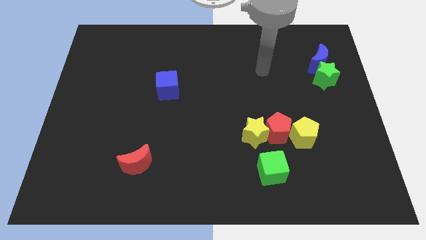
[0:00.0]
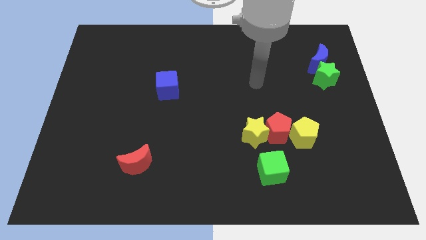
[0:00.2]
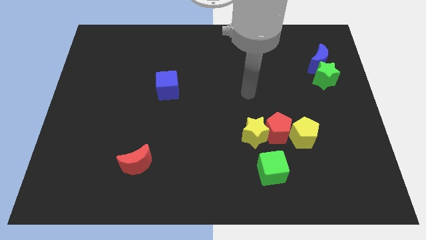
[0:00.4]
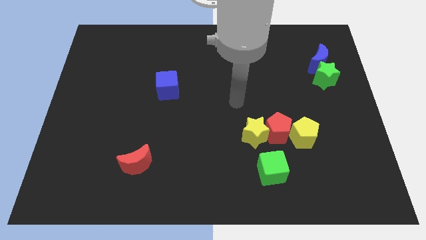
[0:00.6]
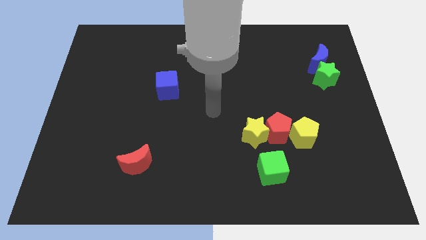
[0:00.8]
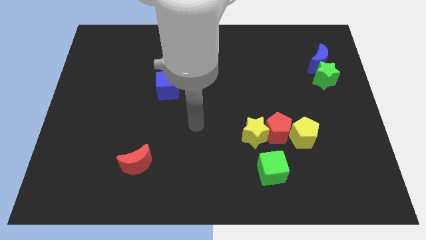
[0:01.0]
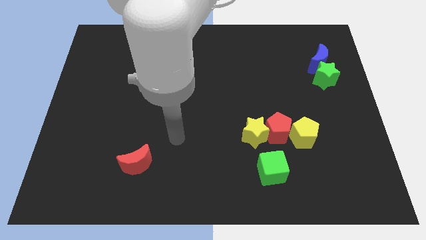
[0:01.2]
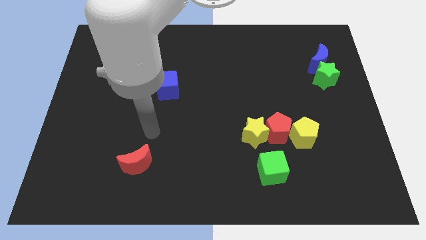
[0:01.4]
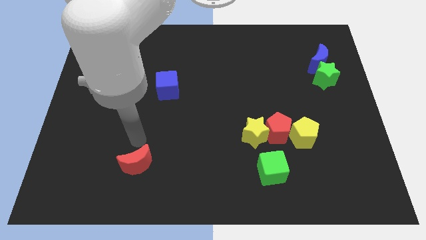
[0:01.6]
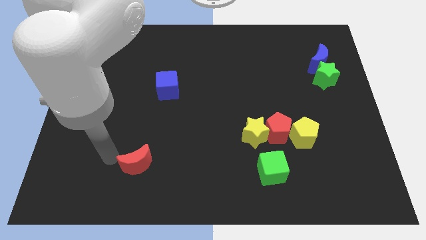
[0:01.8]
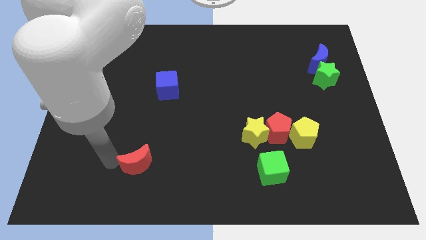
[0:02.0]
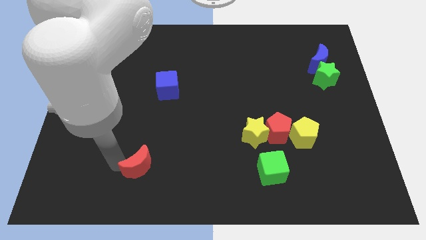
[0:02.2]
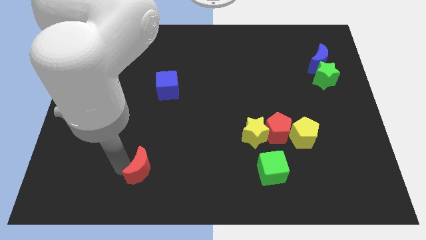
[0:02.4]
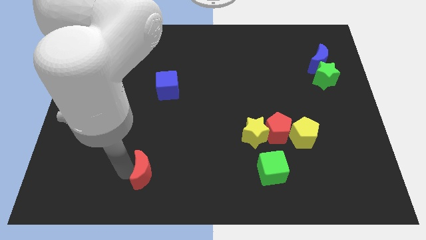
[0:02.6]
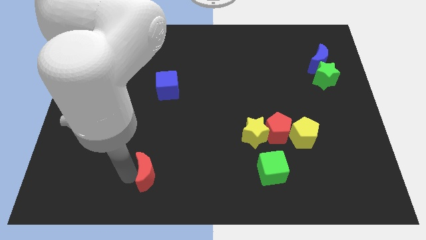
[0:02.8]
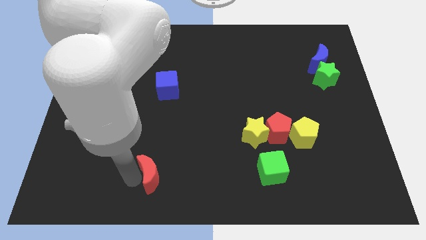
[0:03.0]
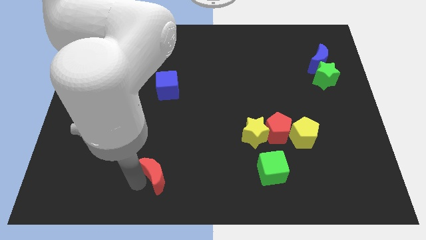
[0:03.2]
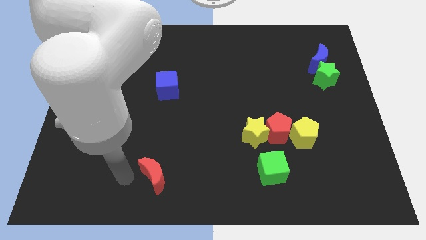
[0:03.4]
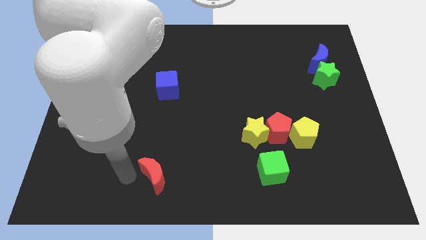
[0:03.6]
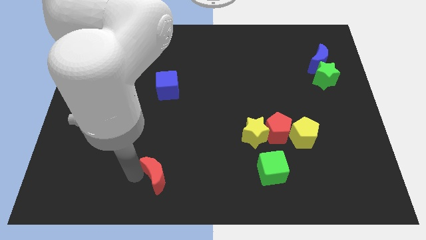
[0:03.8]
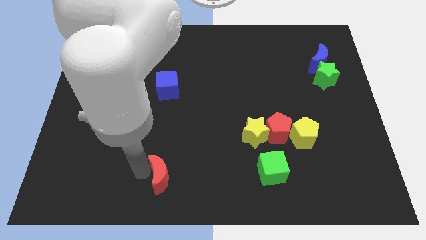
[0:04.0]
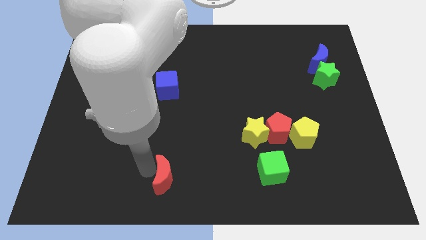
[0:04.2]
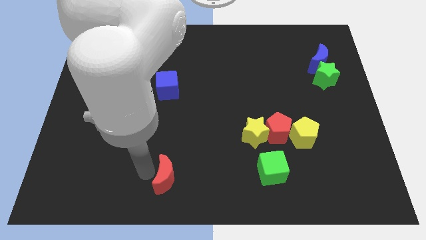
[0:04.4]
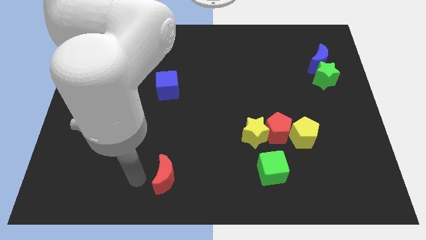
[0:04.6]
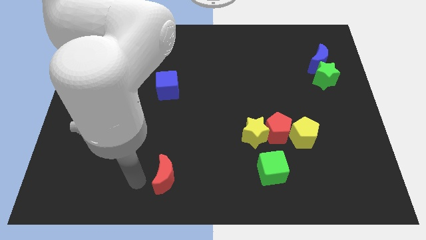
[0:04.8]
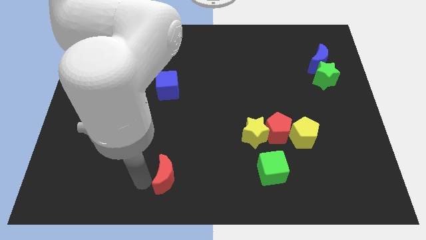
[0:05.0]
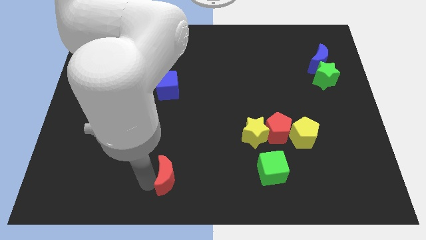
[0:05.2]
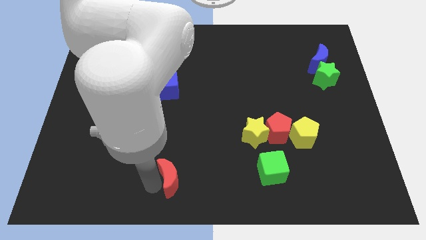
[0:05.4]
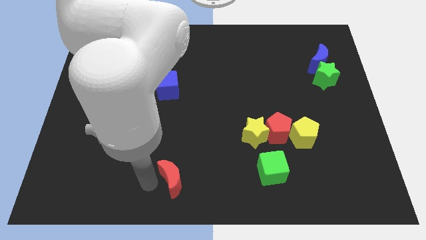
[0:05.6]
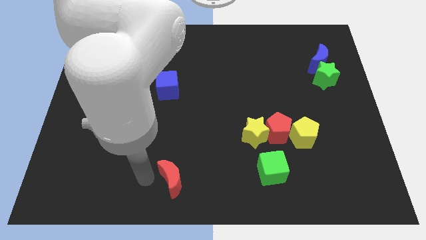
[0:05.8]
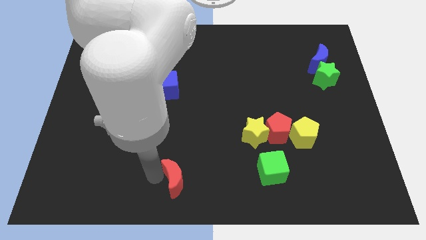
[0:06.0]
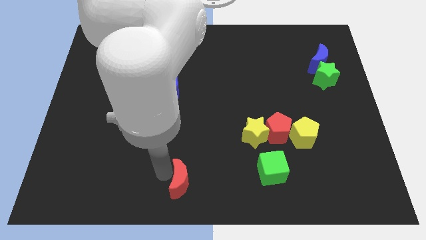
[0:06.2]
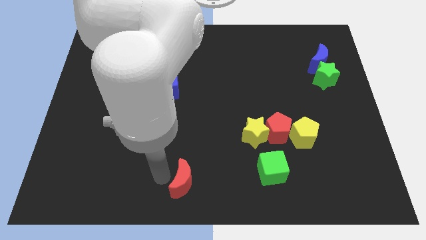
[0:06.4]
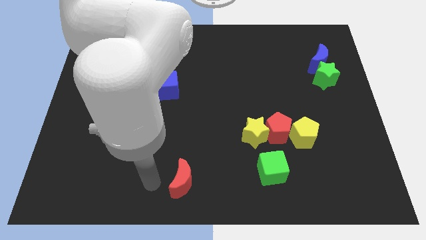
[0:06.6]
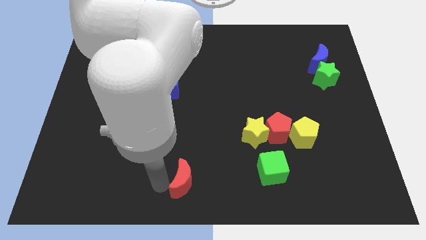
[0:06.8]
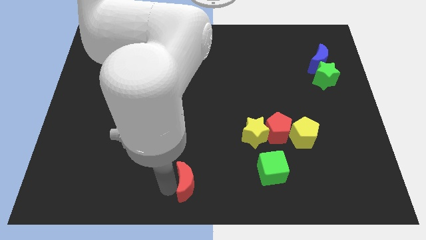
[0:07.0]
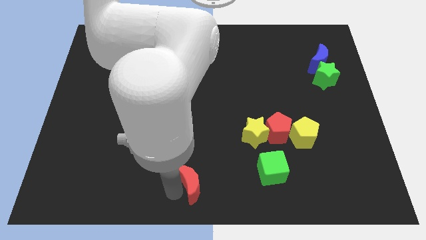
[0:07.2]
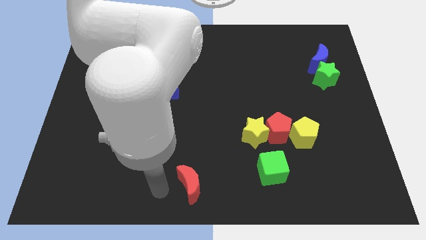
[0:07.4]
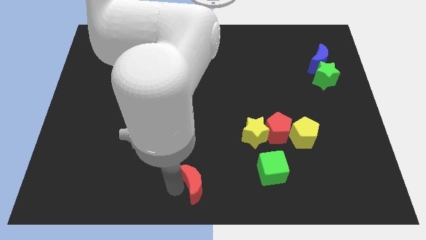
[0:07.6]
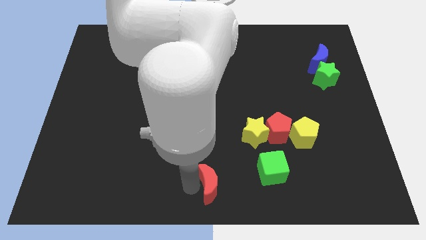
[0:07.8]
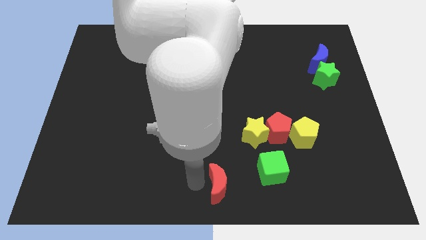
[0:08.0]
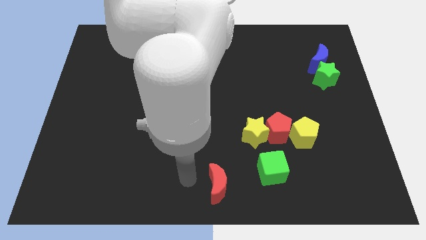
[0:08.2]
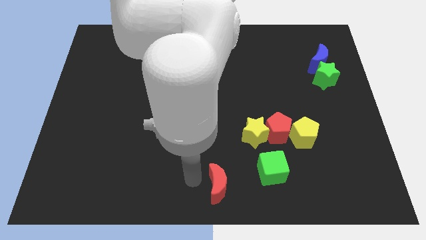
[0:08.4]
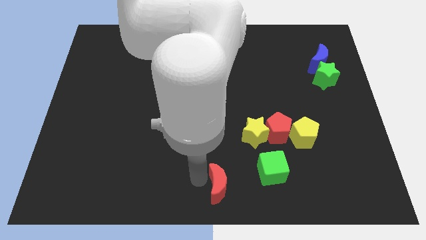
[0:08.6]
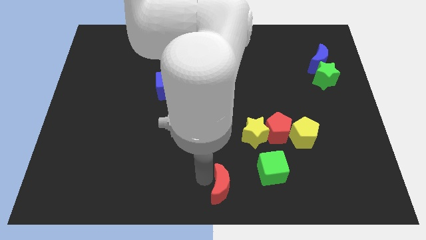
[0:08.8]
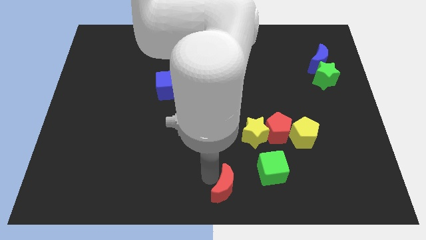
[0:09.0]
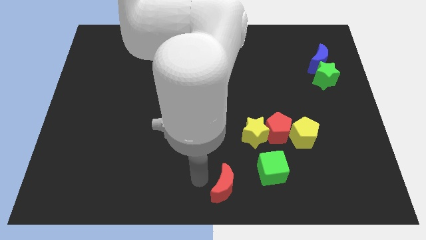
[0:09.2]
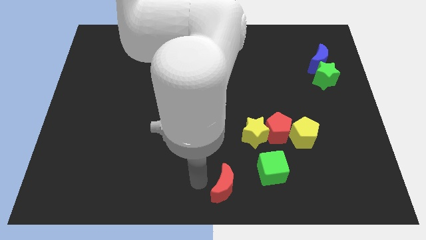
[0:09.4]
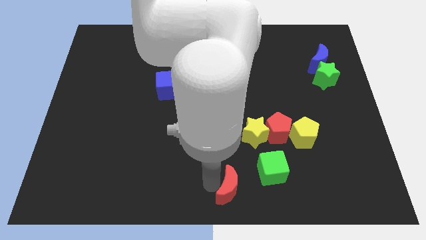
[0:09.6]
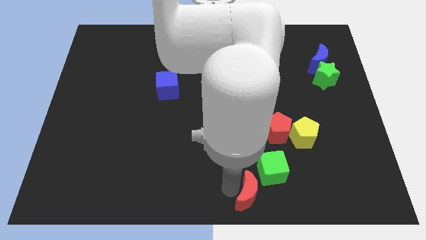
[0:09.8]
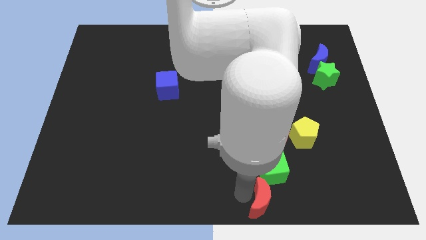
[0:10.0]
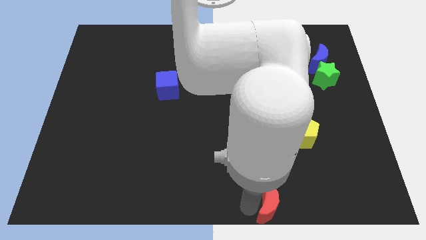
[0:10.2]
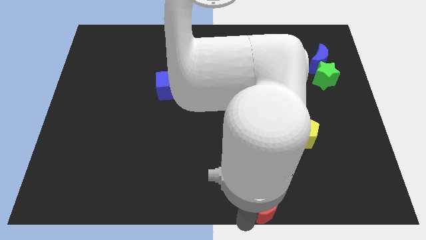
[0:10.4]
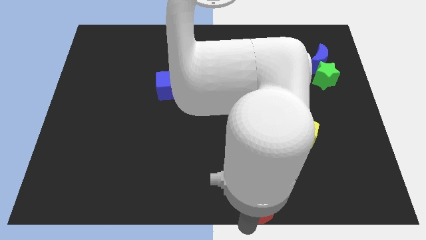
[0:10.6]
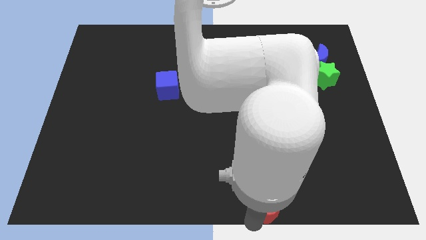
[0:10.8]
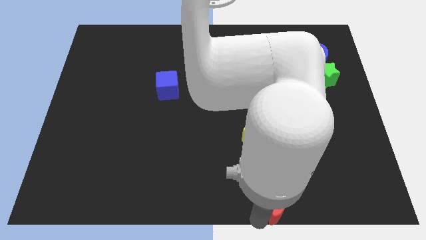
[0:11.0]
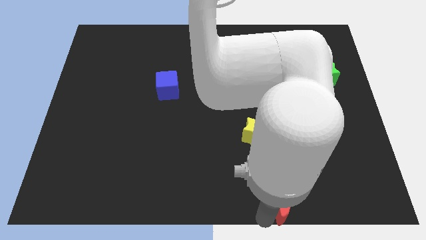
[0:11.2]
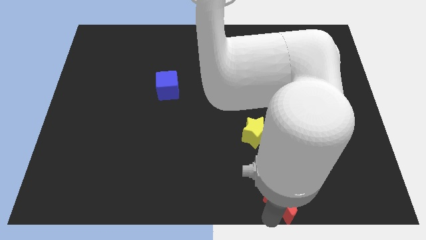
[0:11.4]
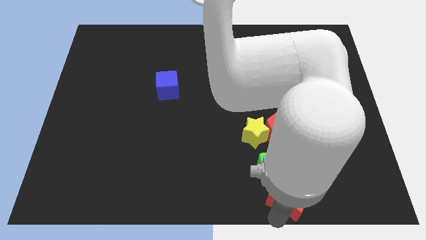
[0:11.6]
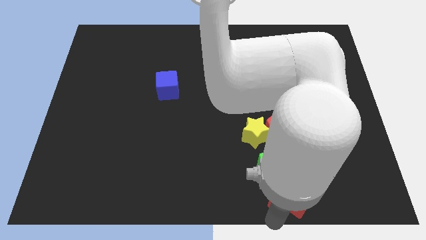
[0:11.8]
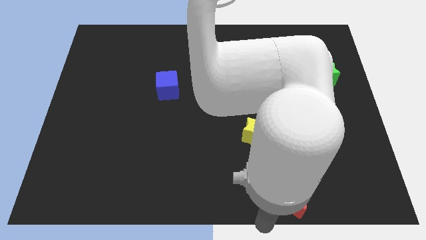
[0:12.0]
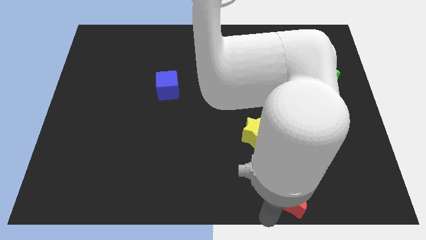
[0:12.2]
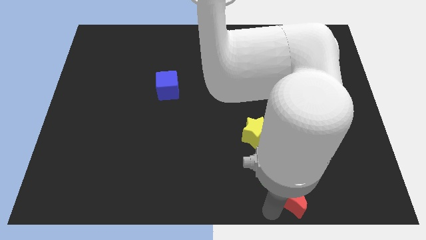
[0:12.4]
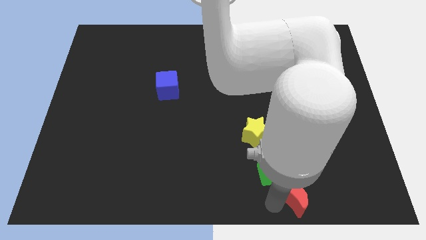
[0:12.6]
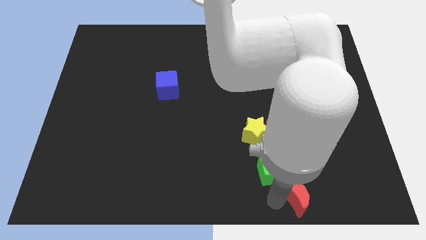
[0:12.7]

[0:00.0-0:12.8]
move the red moon to the bottom side of the yellow pentagon
